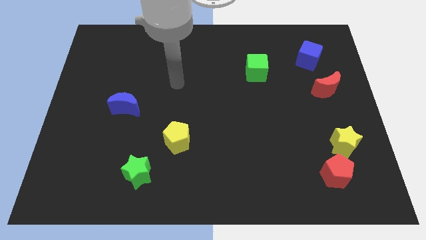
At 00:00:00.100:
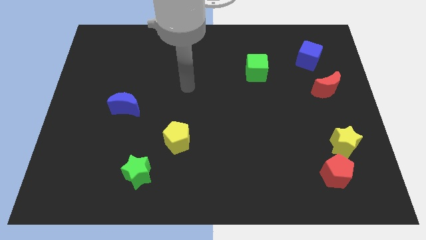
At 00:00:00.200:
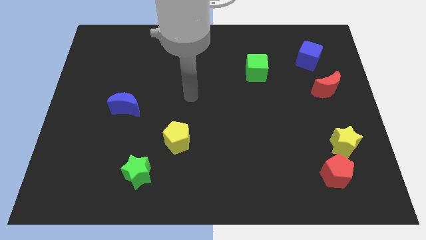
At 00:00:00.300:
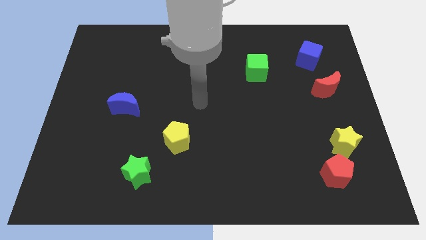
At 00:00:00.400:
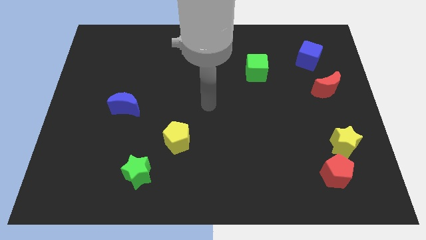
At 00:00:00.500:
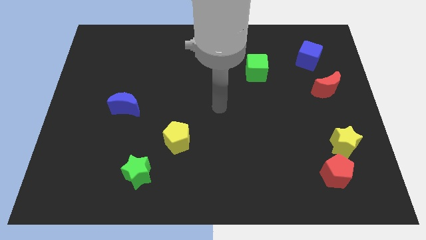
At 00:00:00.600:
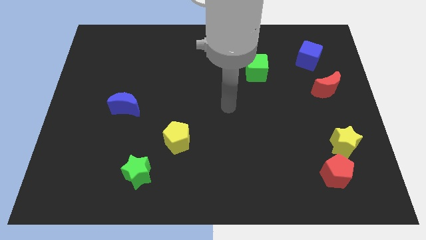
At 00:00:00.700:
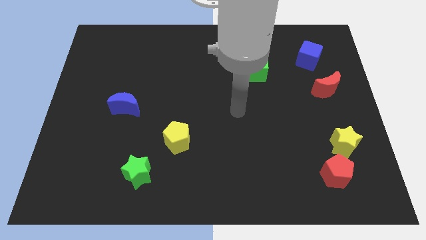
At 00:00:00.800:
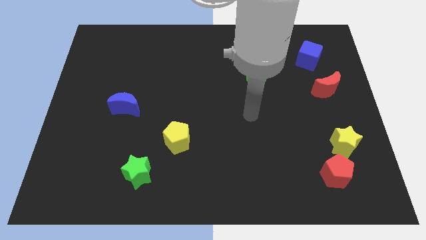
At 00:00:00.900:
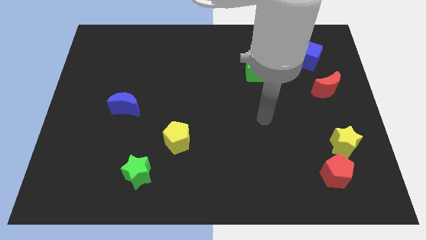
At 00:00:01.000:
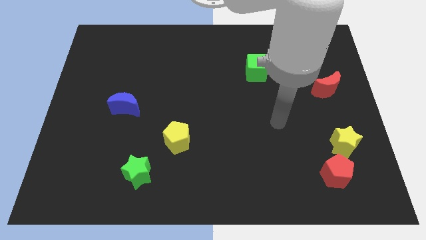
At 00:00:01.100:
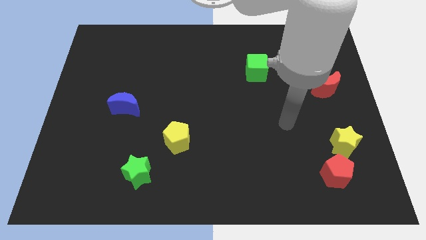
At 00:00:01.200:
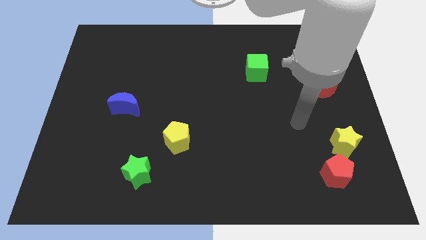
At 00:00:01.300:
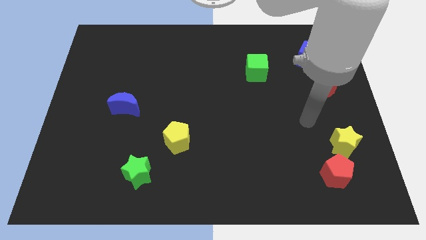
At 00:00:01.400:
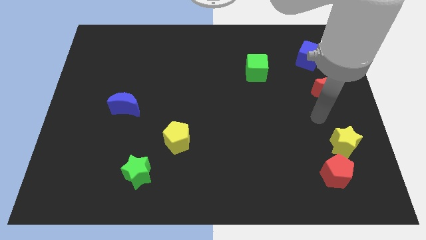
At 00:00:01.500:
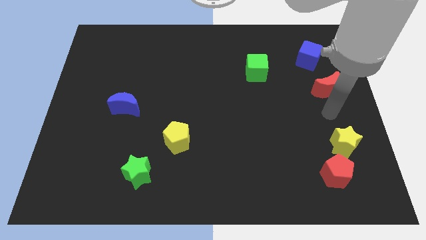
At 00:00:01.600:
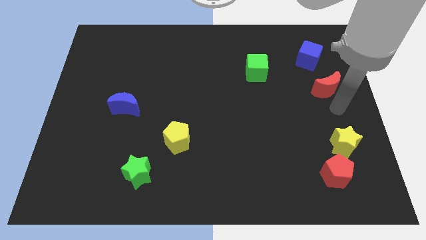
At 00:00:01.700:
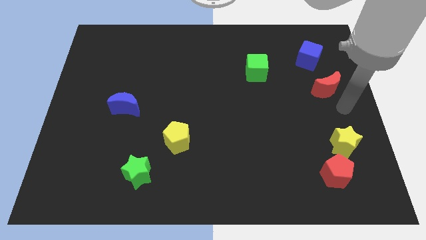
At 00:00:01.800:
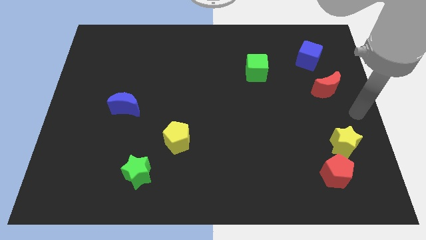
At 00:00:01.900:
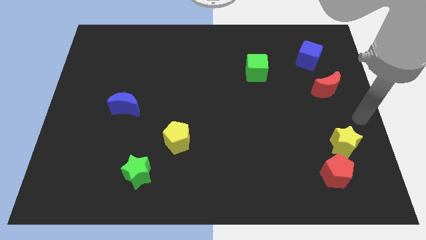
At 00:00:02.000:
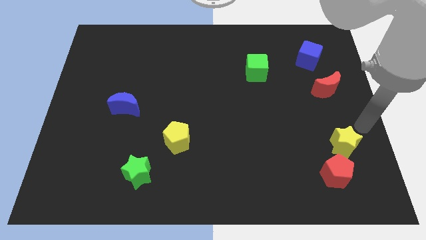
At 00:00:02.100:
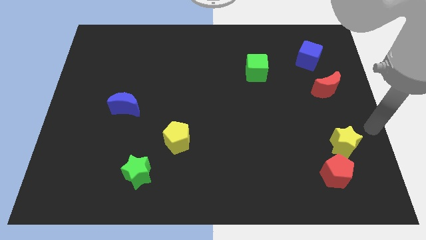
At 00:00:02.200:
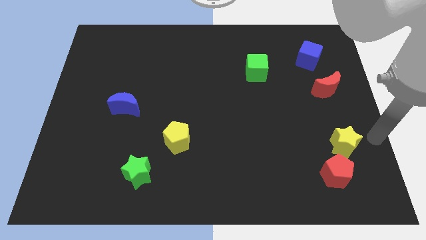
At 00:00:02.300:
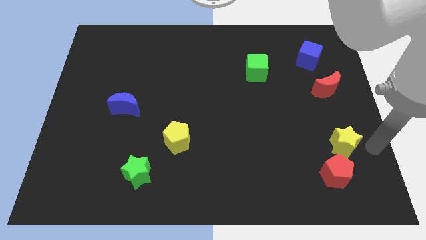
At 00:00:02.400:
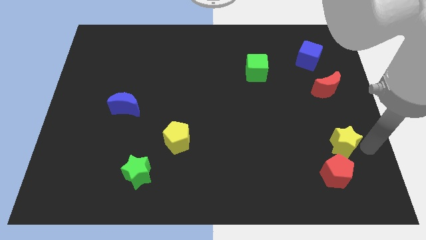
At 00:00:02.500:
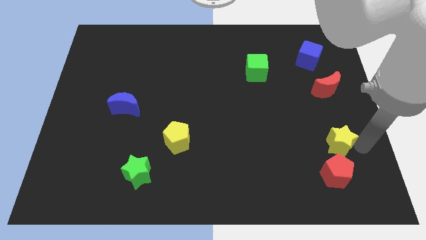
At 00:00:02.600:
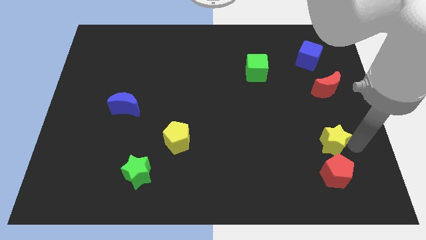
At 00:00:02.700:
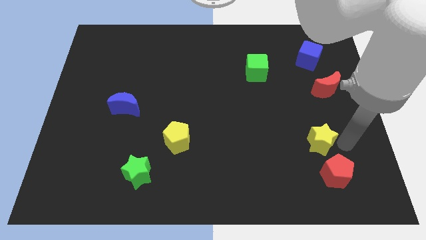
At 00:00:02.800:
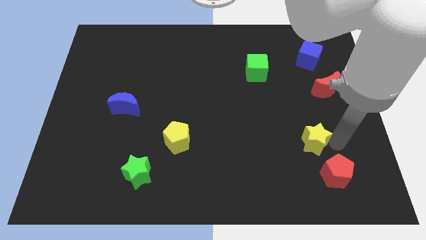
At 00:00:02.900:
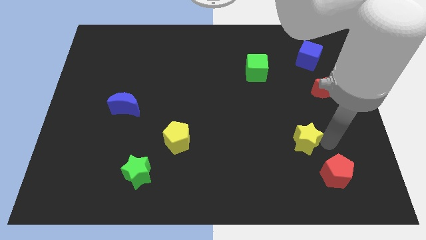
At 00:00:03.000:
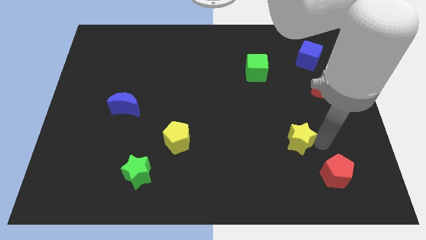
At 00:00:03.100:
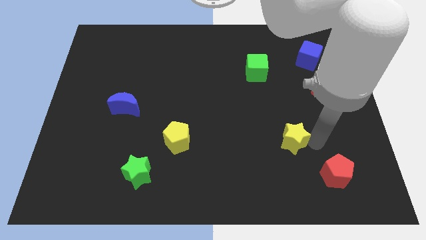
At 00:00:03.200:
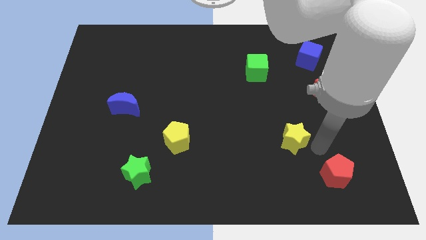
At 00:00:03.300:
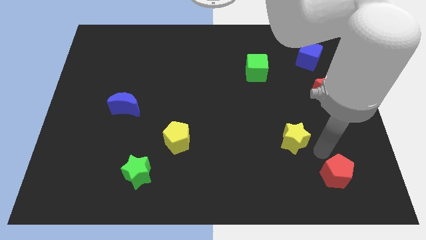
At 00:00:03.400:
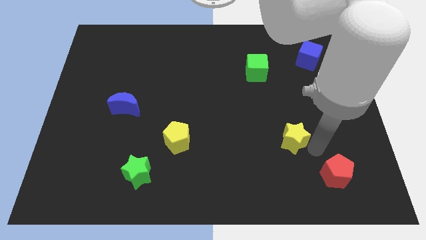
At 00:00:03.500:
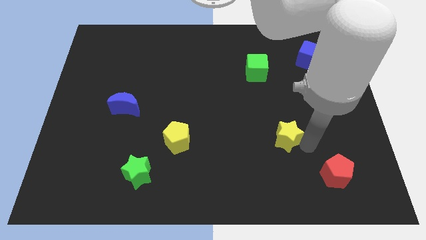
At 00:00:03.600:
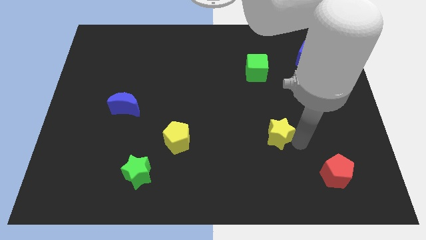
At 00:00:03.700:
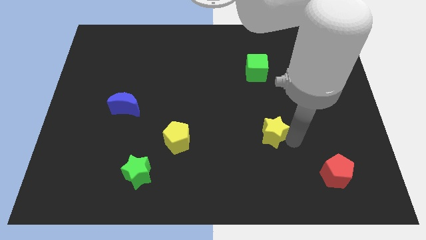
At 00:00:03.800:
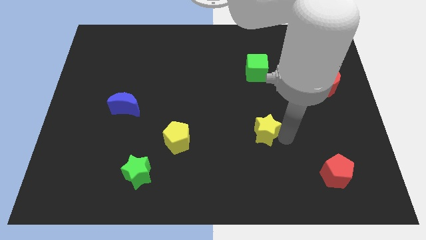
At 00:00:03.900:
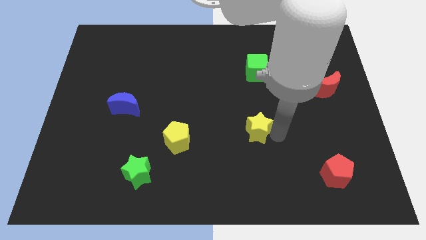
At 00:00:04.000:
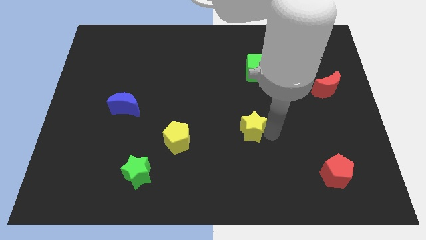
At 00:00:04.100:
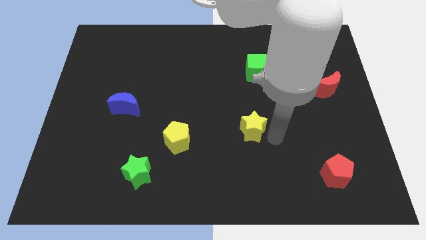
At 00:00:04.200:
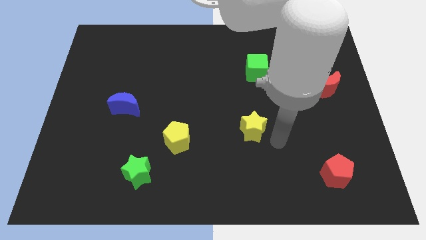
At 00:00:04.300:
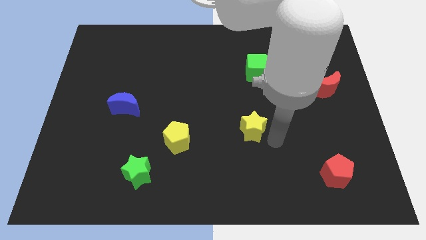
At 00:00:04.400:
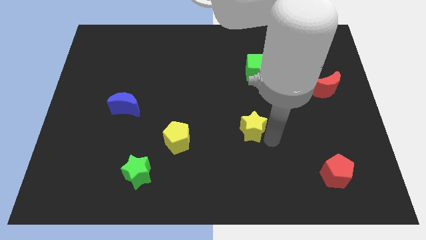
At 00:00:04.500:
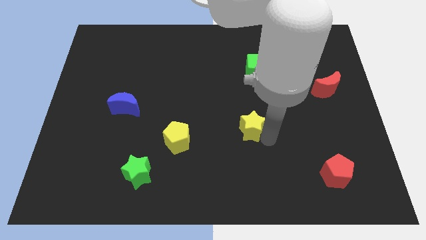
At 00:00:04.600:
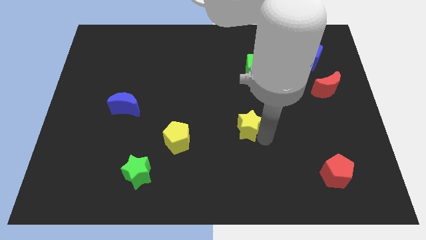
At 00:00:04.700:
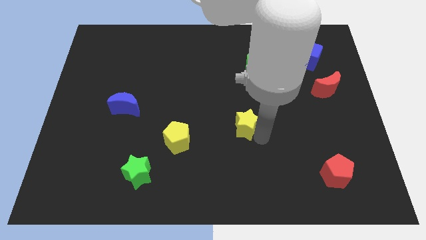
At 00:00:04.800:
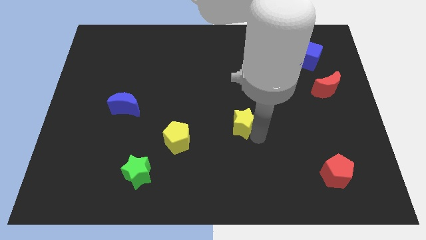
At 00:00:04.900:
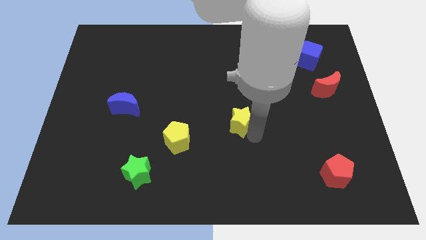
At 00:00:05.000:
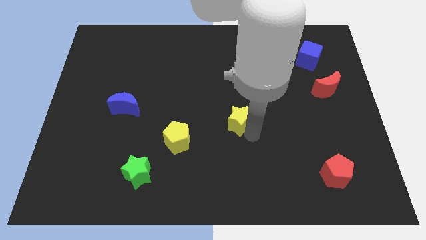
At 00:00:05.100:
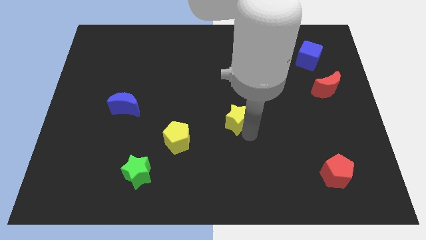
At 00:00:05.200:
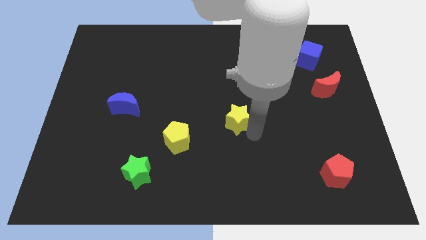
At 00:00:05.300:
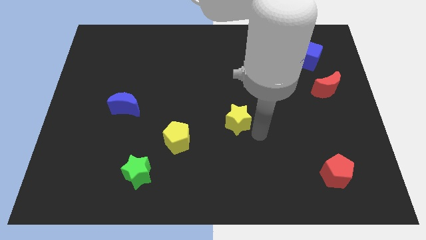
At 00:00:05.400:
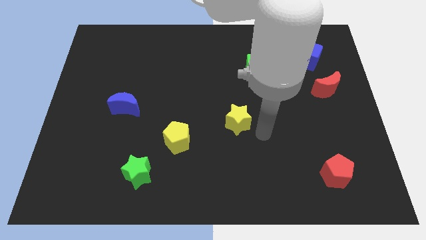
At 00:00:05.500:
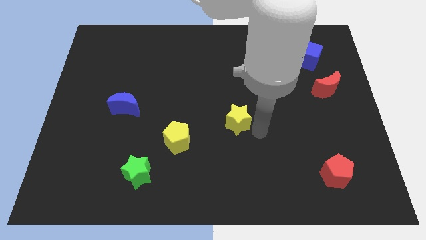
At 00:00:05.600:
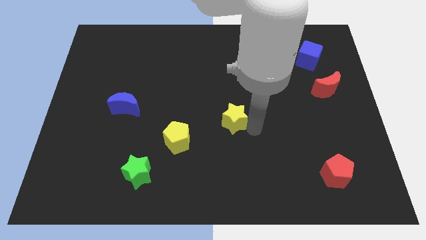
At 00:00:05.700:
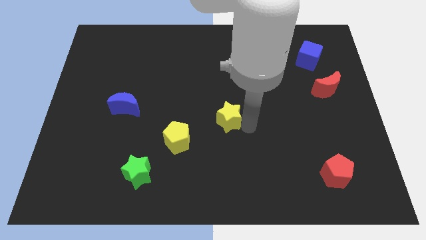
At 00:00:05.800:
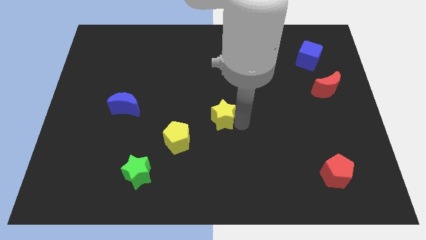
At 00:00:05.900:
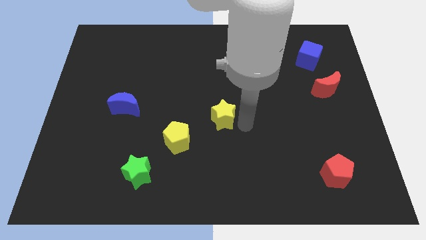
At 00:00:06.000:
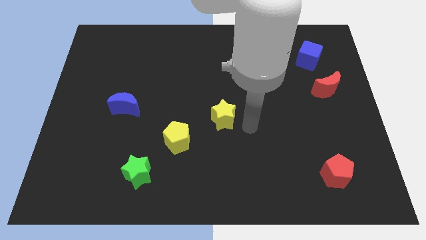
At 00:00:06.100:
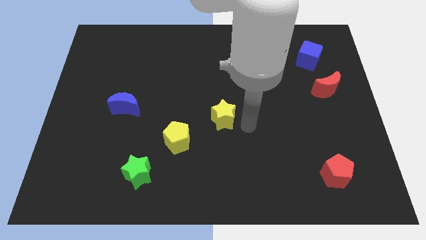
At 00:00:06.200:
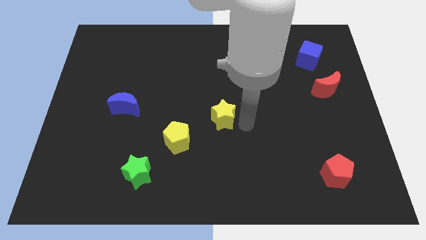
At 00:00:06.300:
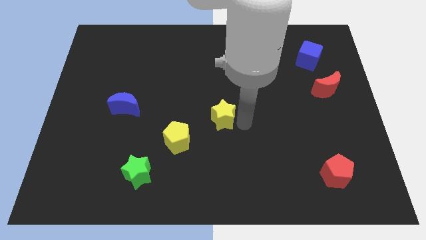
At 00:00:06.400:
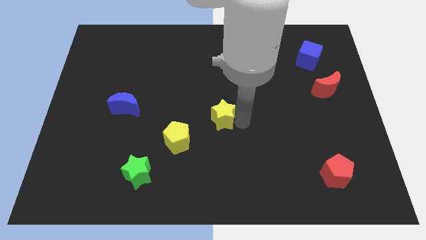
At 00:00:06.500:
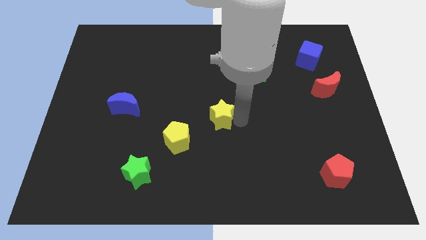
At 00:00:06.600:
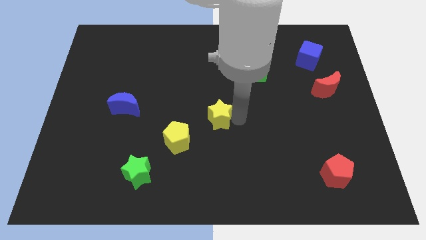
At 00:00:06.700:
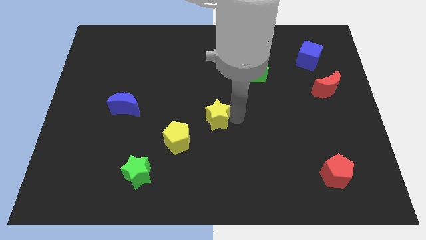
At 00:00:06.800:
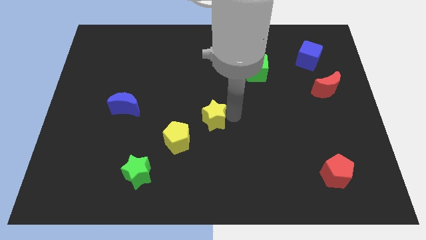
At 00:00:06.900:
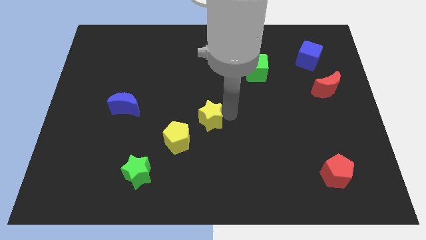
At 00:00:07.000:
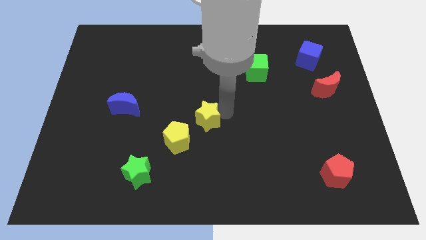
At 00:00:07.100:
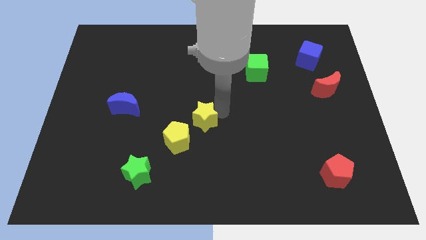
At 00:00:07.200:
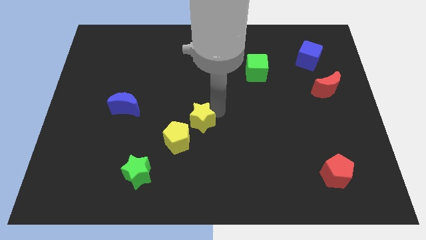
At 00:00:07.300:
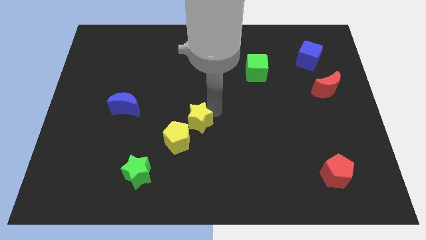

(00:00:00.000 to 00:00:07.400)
push the yellow star to the top of the yellow pentagon
